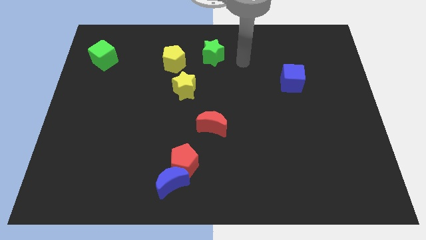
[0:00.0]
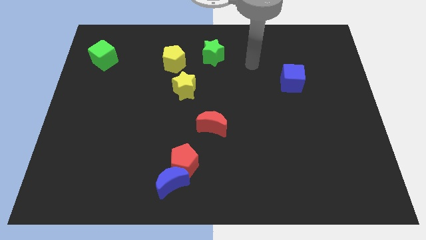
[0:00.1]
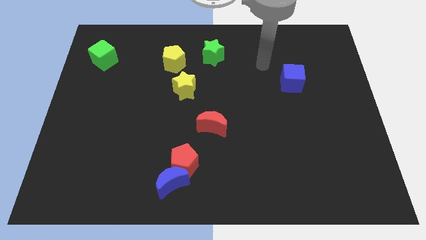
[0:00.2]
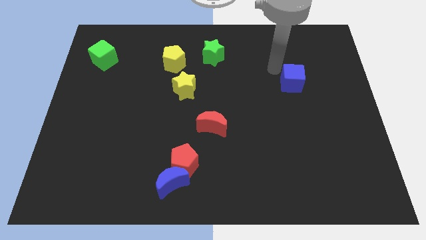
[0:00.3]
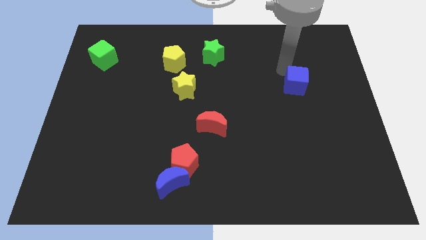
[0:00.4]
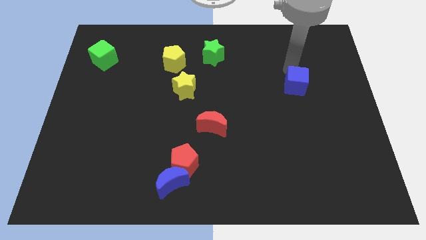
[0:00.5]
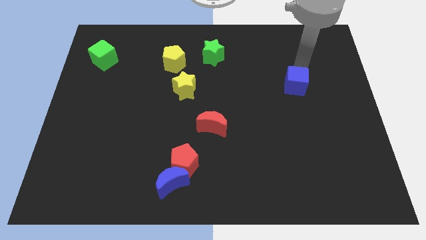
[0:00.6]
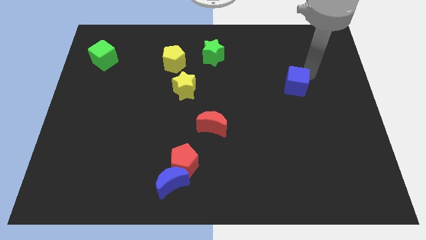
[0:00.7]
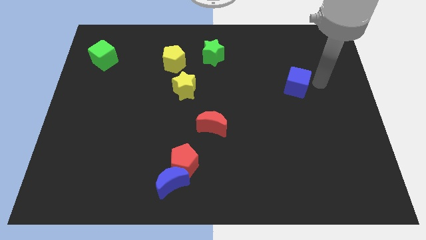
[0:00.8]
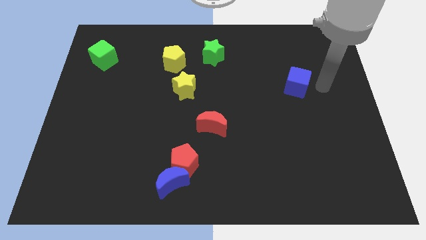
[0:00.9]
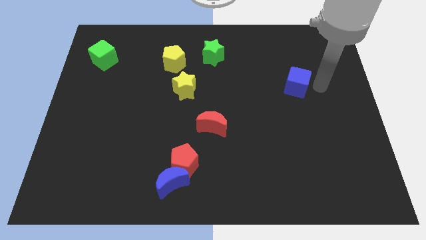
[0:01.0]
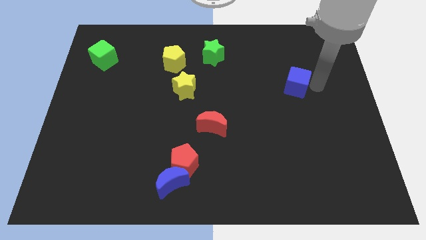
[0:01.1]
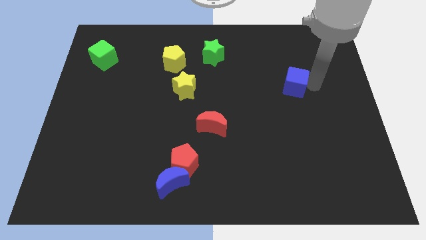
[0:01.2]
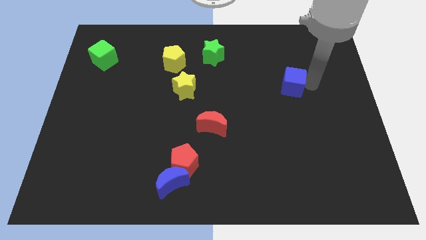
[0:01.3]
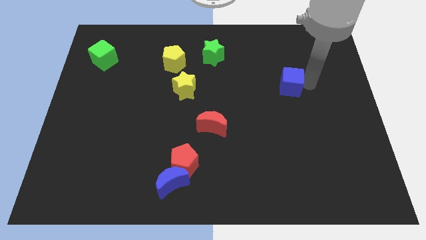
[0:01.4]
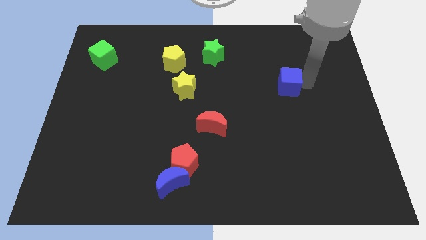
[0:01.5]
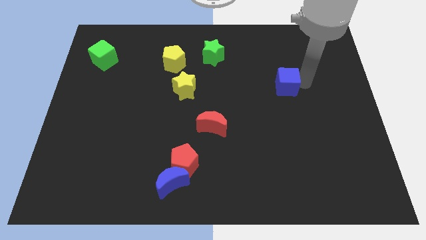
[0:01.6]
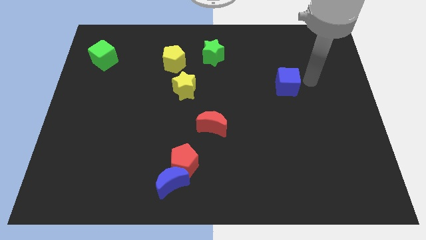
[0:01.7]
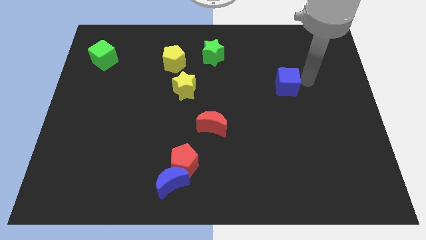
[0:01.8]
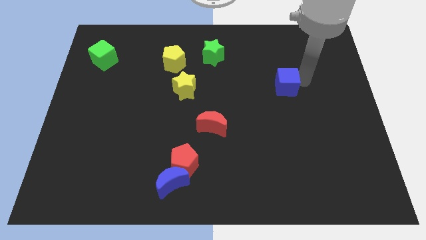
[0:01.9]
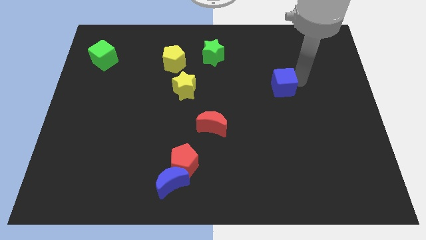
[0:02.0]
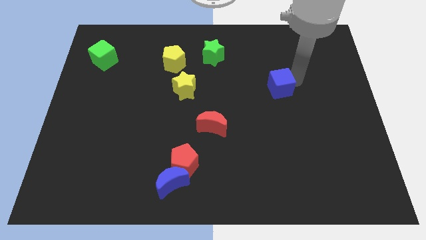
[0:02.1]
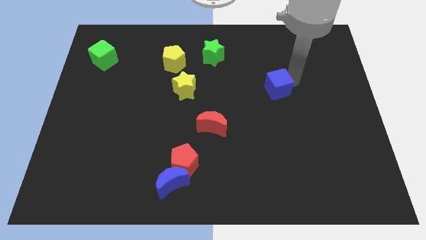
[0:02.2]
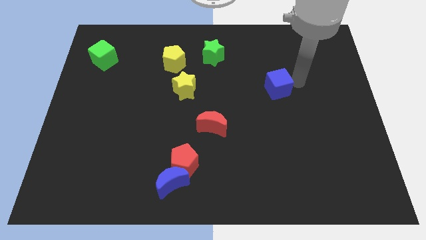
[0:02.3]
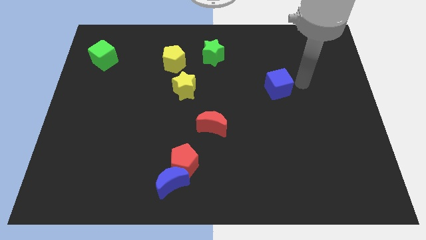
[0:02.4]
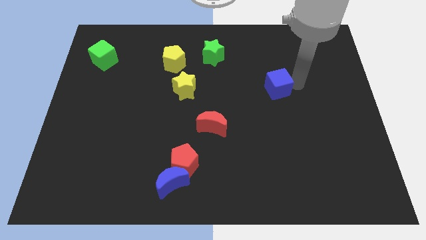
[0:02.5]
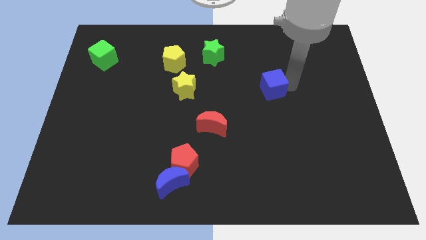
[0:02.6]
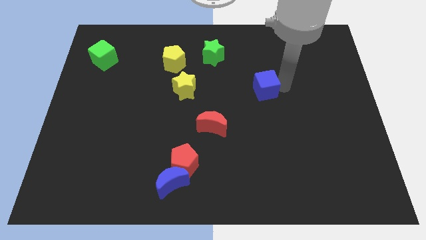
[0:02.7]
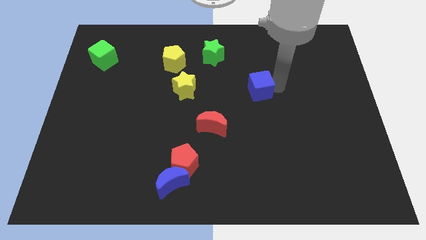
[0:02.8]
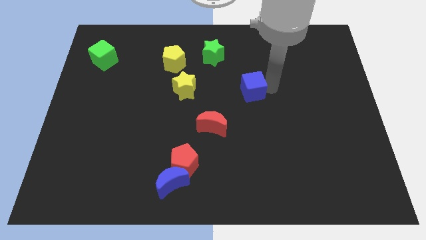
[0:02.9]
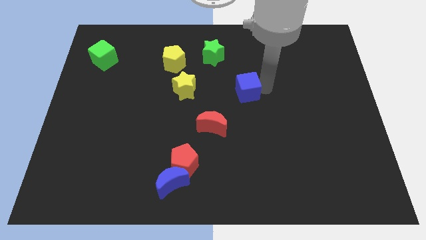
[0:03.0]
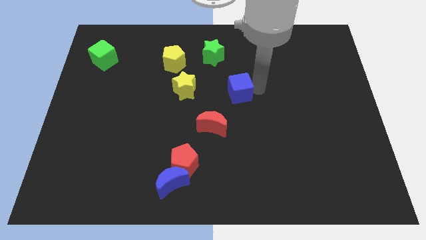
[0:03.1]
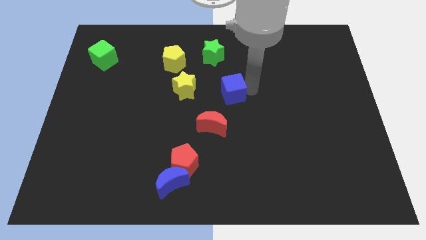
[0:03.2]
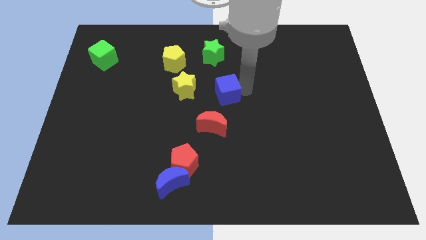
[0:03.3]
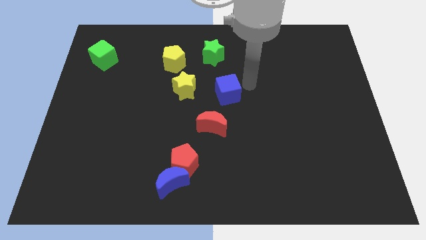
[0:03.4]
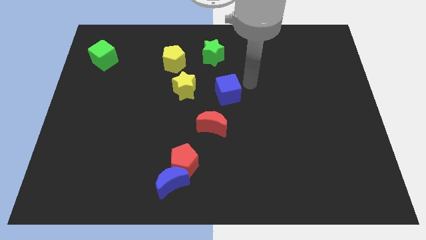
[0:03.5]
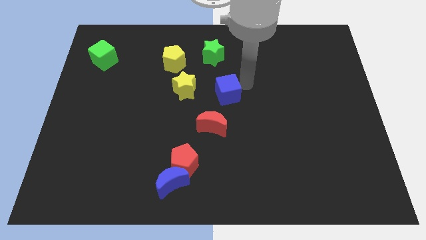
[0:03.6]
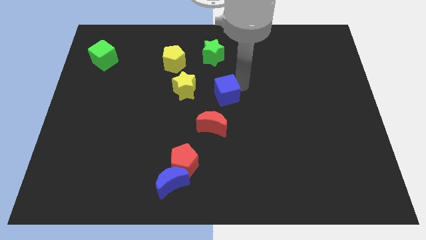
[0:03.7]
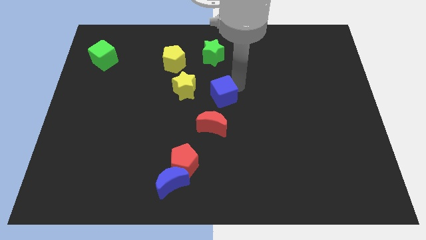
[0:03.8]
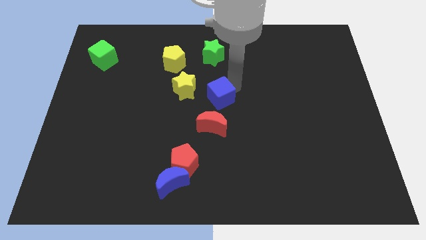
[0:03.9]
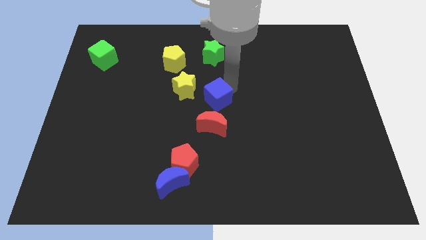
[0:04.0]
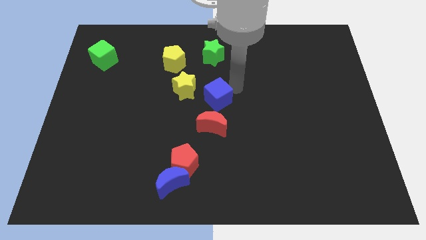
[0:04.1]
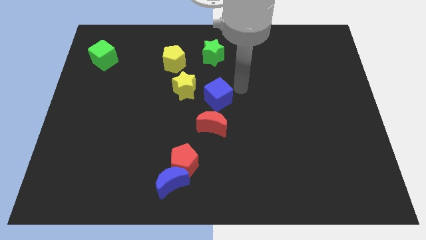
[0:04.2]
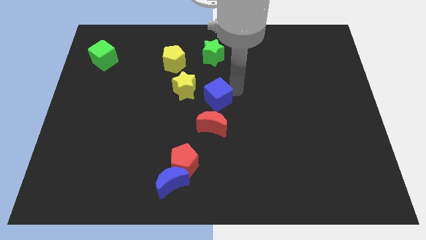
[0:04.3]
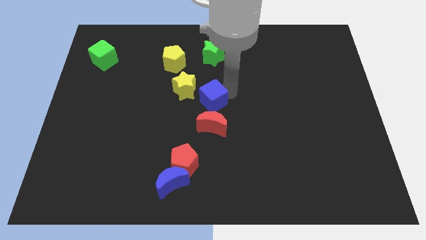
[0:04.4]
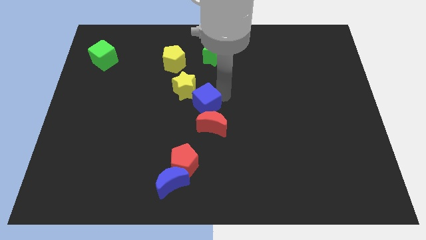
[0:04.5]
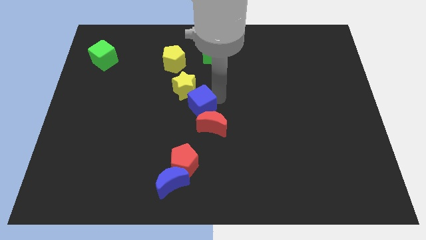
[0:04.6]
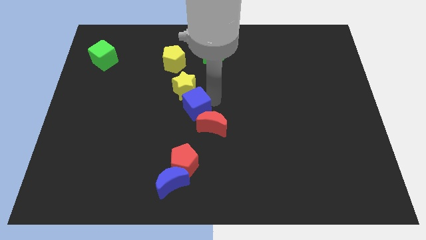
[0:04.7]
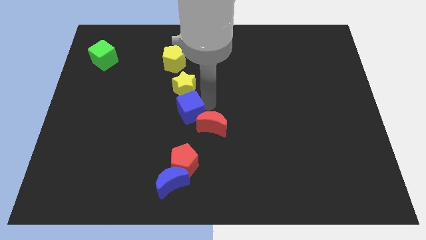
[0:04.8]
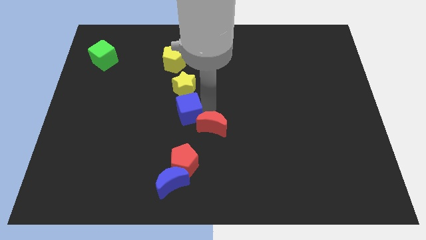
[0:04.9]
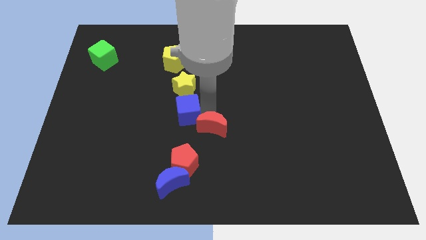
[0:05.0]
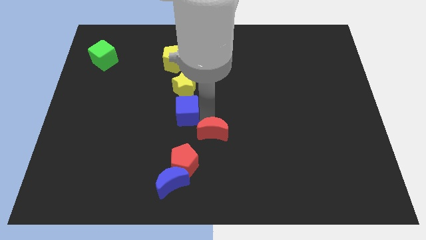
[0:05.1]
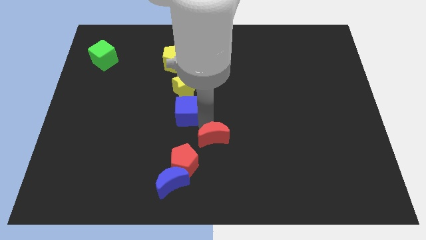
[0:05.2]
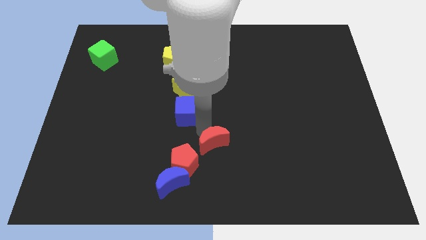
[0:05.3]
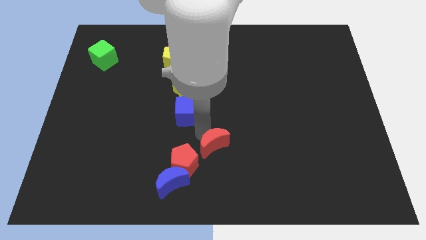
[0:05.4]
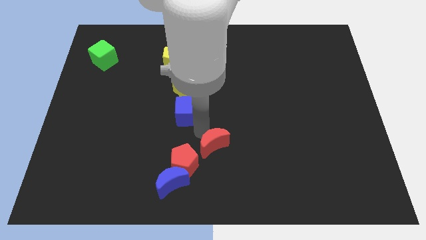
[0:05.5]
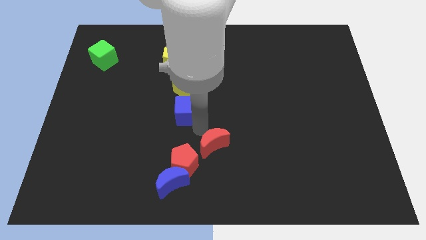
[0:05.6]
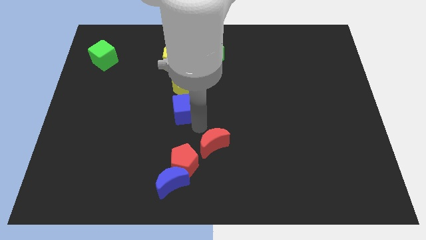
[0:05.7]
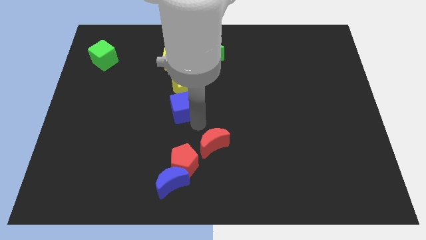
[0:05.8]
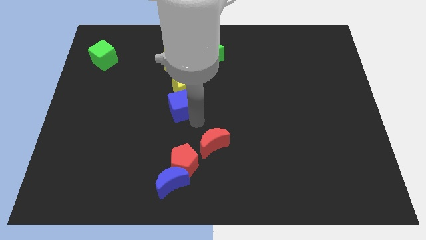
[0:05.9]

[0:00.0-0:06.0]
put the blue cube below the yellow pentagon

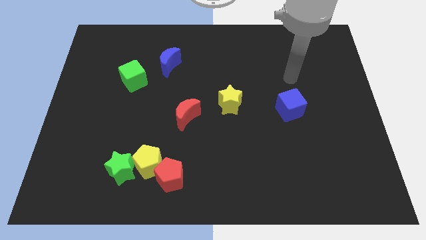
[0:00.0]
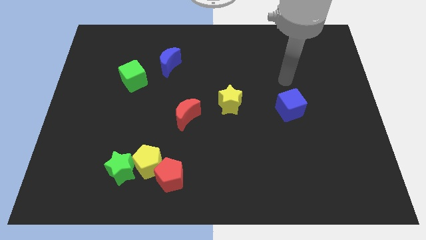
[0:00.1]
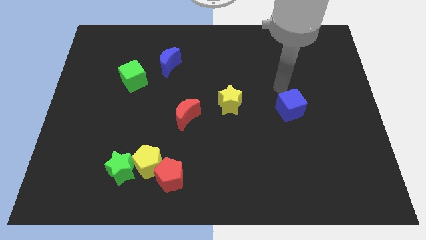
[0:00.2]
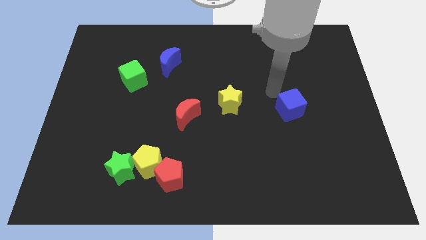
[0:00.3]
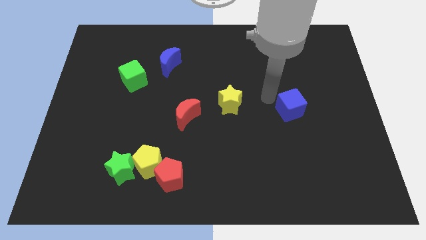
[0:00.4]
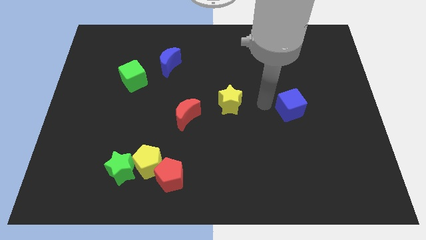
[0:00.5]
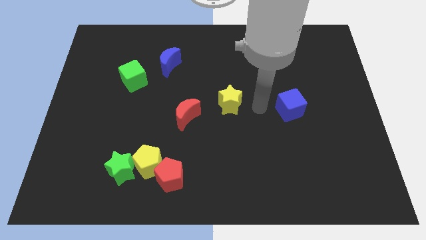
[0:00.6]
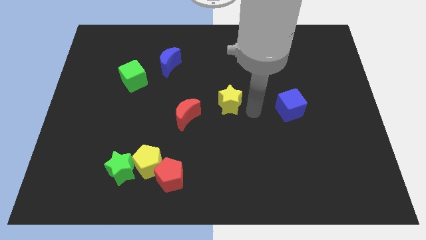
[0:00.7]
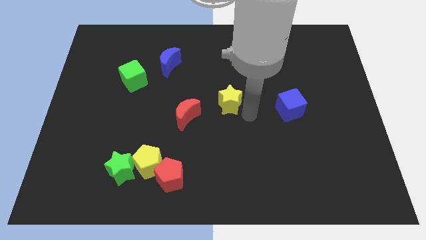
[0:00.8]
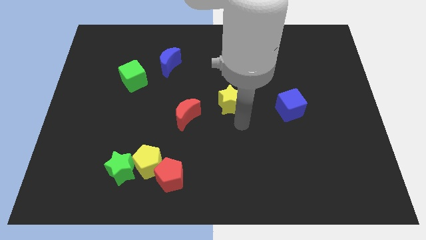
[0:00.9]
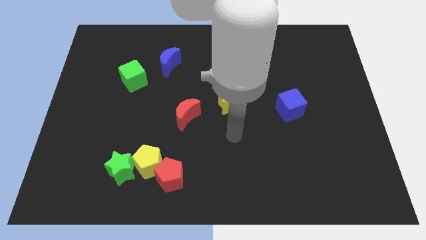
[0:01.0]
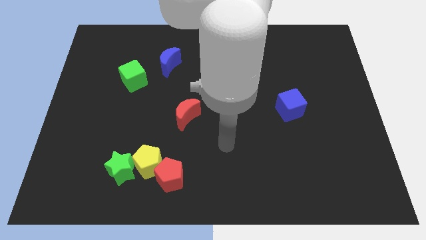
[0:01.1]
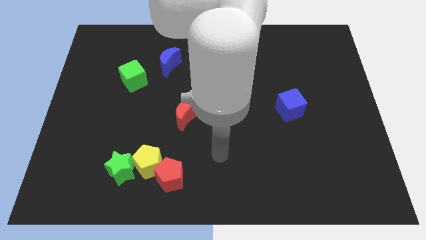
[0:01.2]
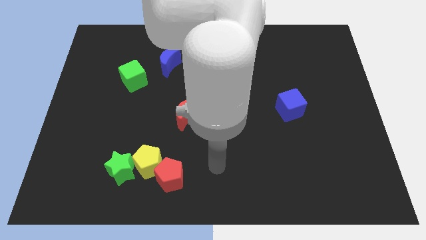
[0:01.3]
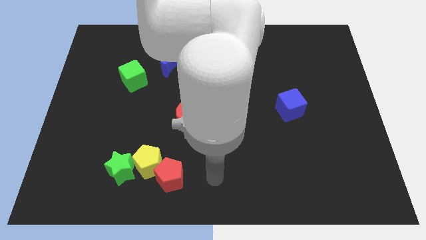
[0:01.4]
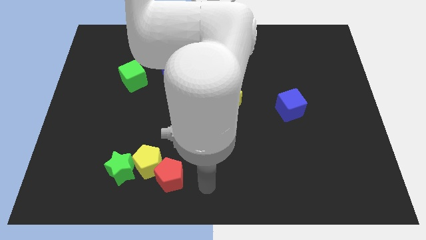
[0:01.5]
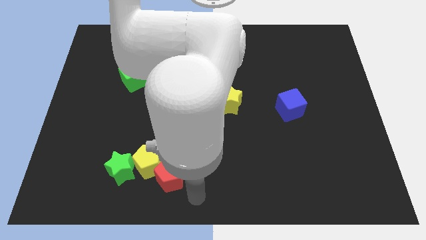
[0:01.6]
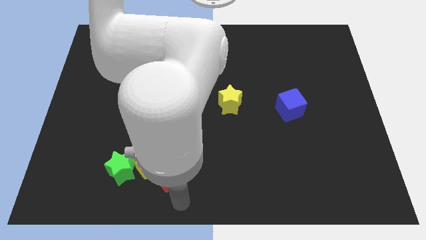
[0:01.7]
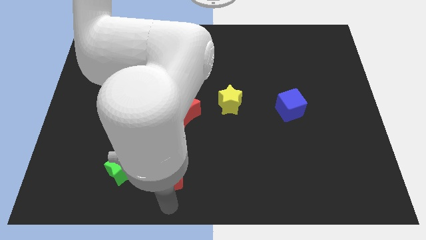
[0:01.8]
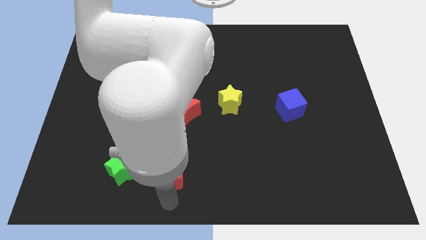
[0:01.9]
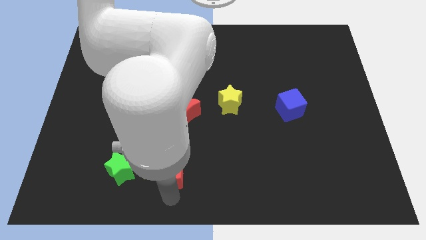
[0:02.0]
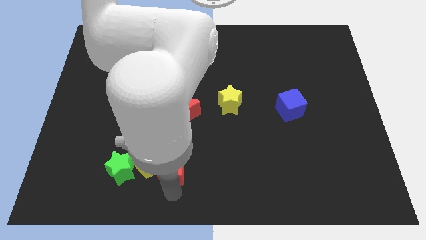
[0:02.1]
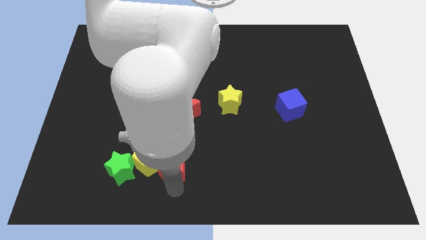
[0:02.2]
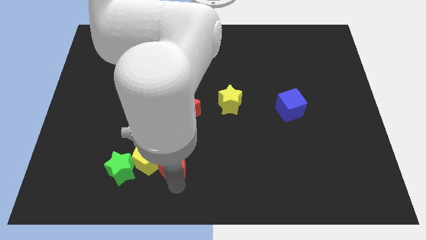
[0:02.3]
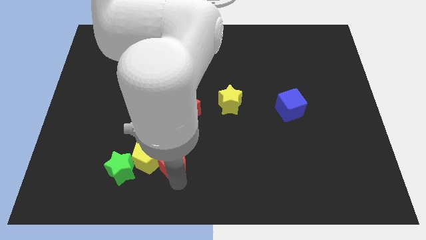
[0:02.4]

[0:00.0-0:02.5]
push the red pentagon to the top right side of the yellow pentagon
